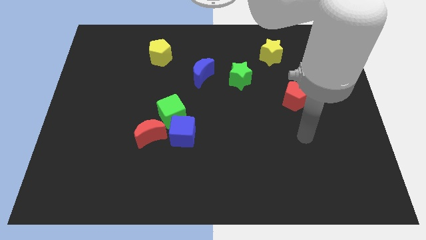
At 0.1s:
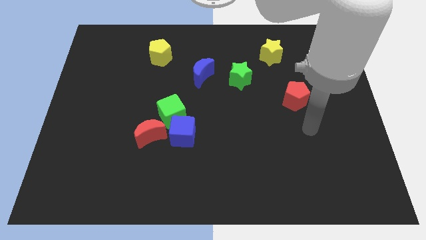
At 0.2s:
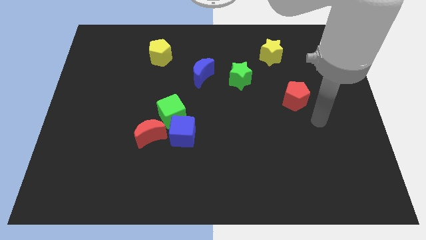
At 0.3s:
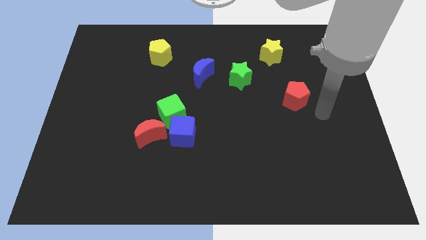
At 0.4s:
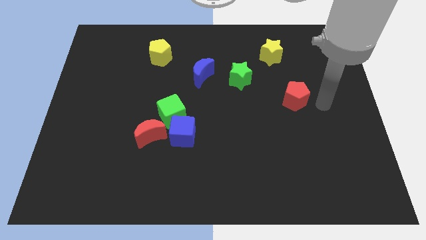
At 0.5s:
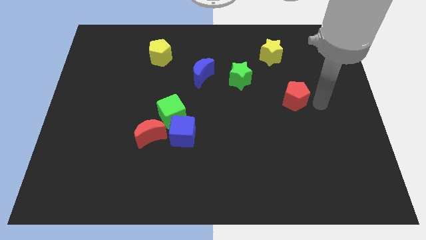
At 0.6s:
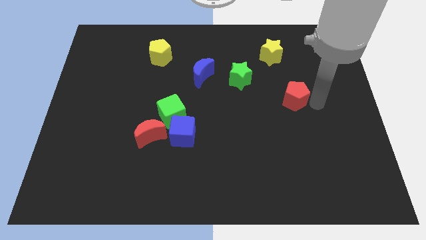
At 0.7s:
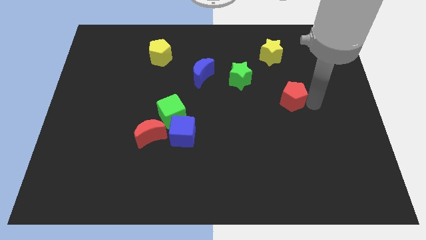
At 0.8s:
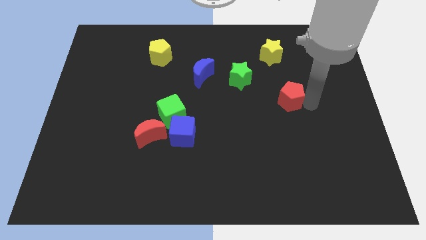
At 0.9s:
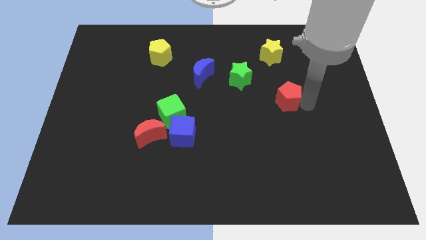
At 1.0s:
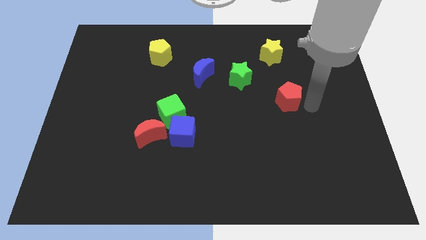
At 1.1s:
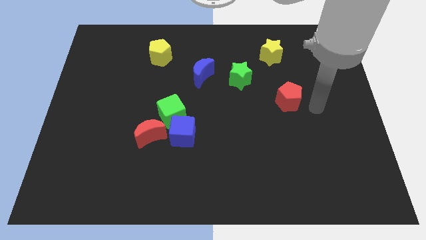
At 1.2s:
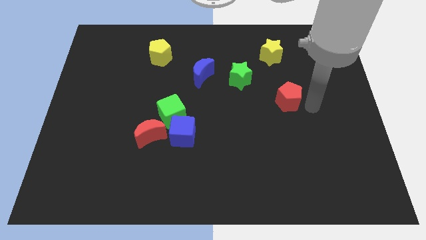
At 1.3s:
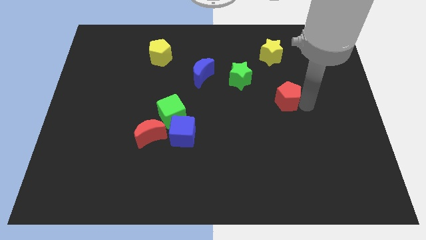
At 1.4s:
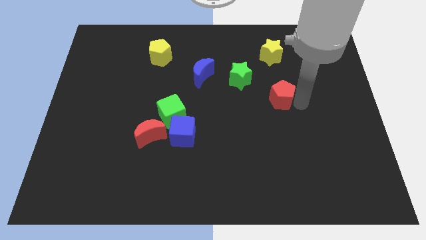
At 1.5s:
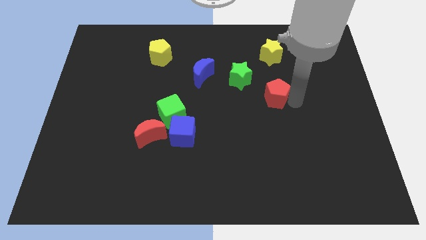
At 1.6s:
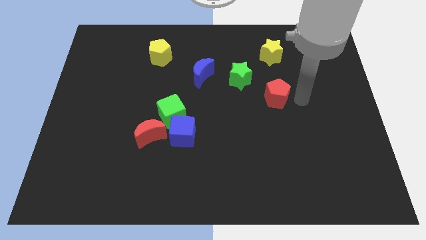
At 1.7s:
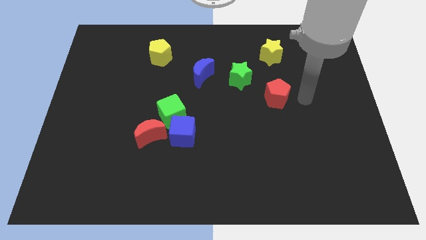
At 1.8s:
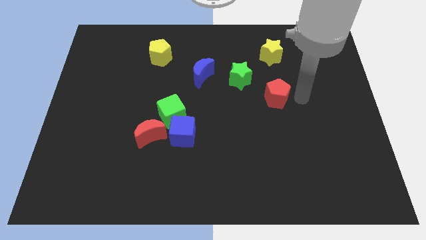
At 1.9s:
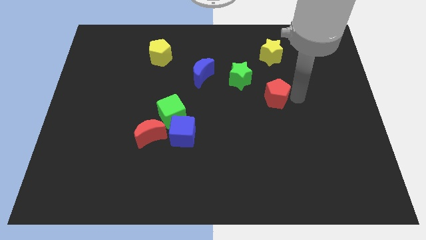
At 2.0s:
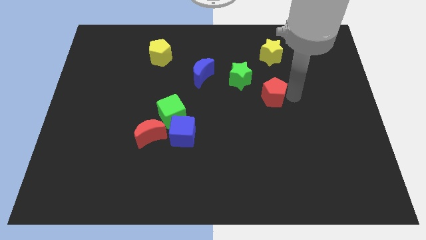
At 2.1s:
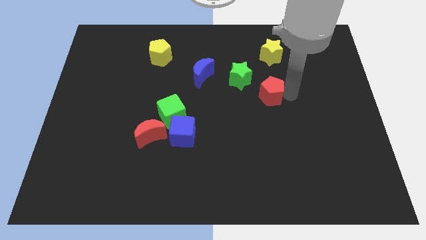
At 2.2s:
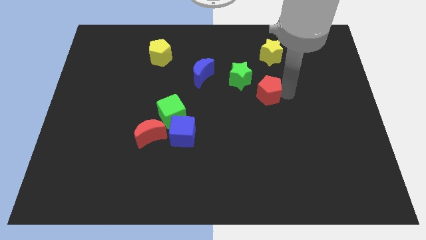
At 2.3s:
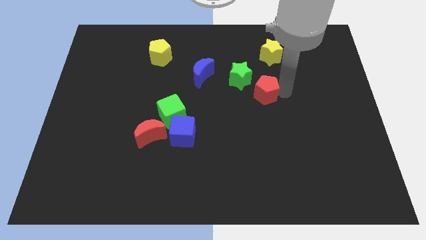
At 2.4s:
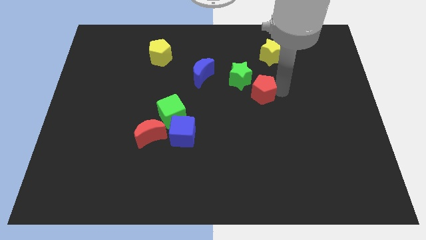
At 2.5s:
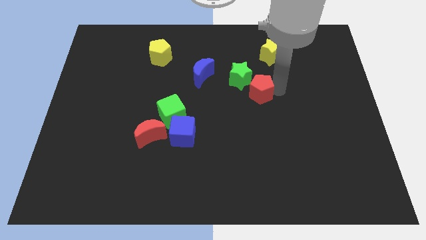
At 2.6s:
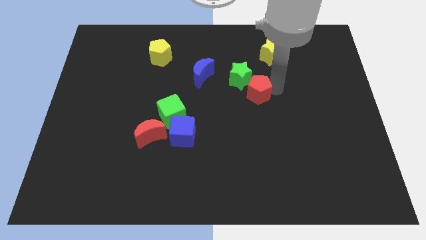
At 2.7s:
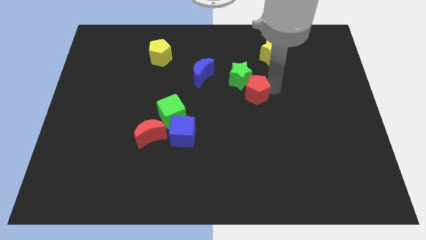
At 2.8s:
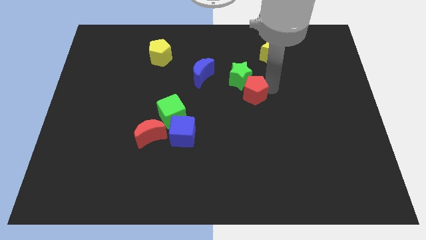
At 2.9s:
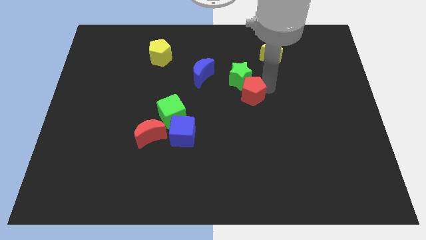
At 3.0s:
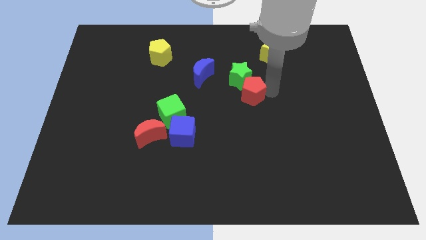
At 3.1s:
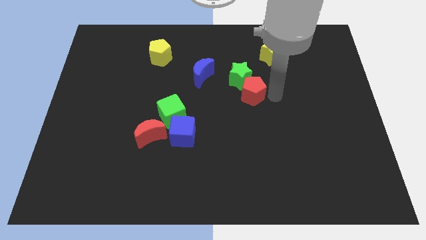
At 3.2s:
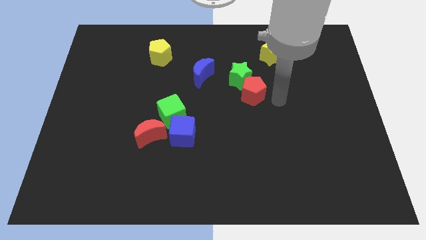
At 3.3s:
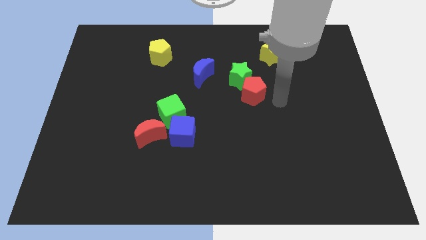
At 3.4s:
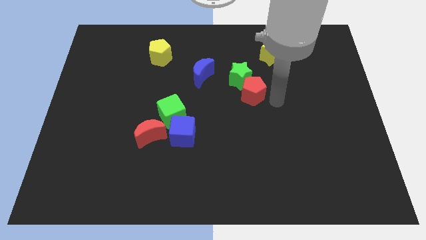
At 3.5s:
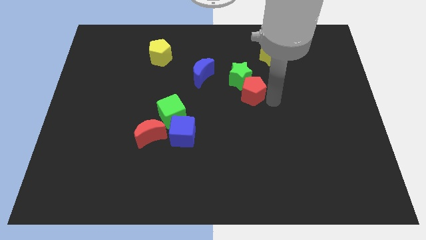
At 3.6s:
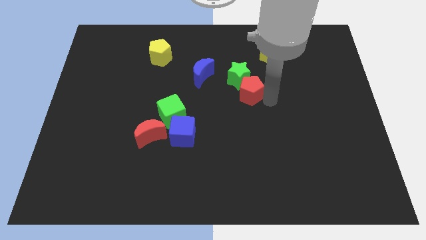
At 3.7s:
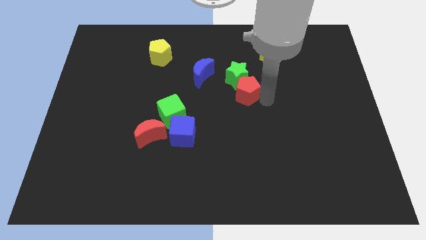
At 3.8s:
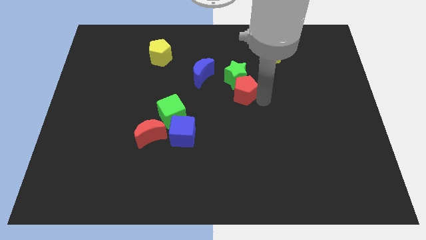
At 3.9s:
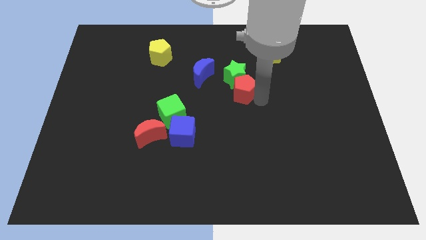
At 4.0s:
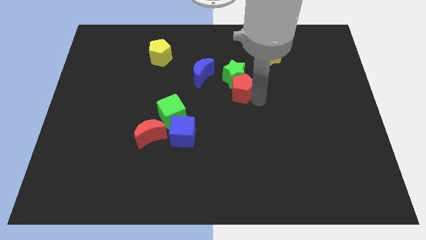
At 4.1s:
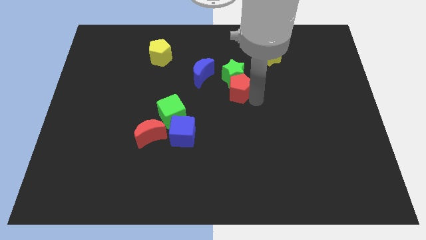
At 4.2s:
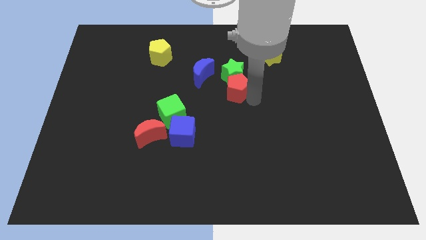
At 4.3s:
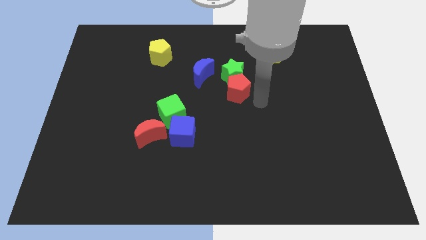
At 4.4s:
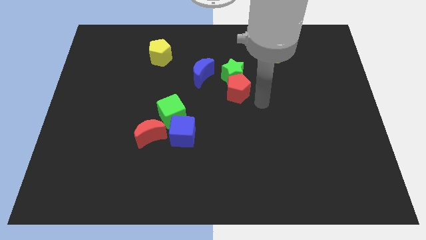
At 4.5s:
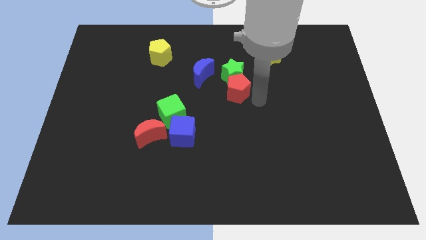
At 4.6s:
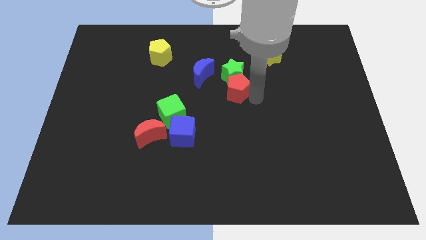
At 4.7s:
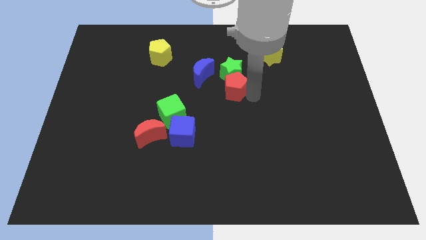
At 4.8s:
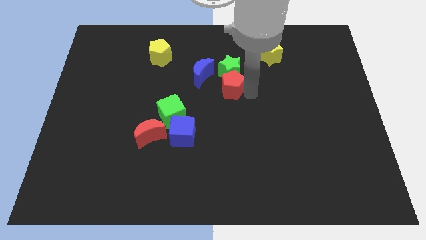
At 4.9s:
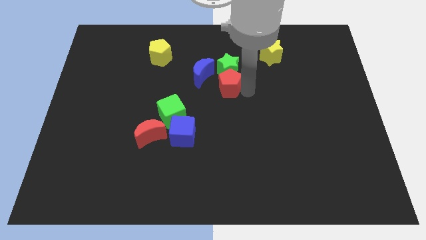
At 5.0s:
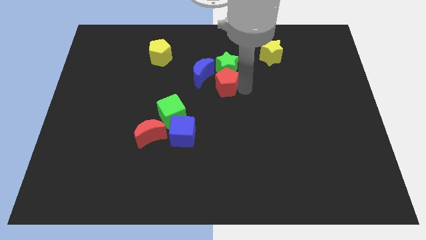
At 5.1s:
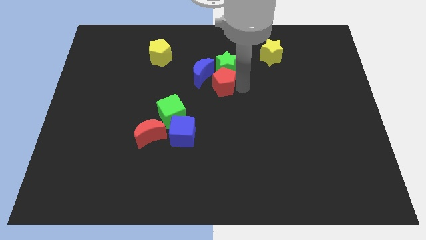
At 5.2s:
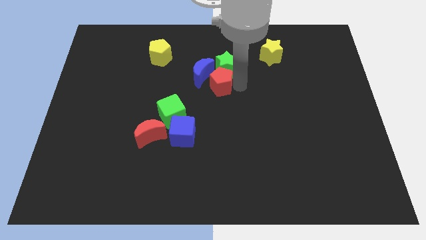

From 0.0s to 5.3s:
push the red pentagon towards the blue moon

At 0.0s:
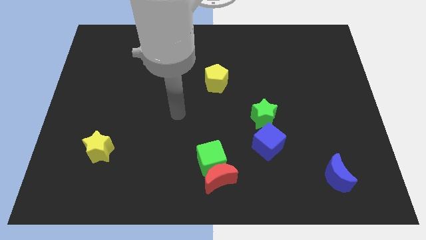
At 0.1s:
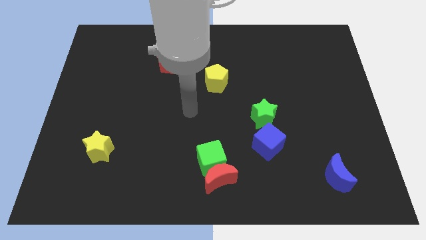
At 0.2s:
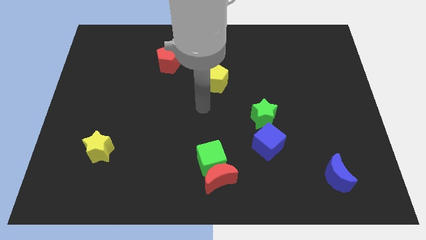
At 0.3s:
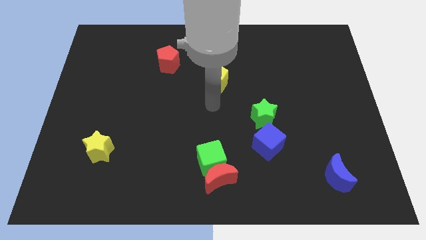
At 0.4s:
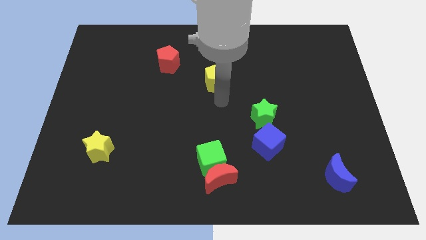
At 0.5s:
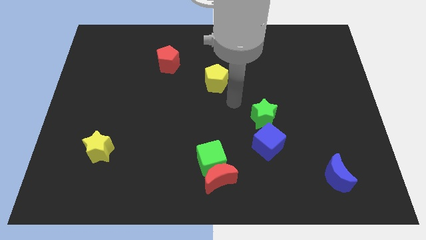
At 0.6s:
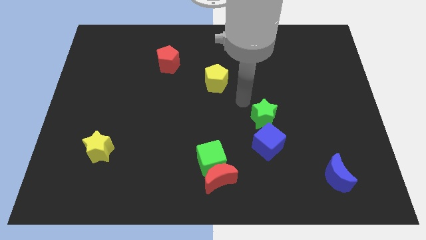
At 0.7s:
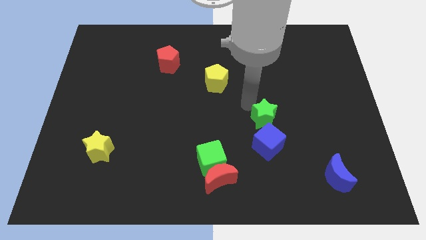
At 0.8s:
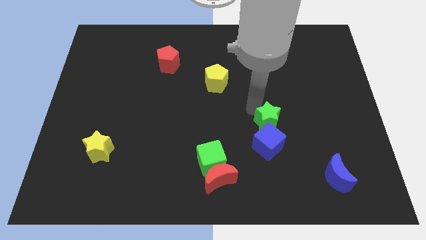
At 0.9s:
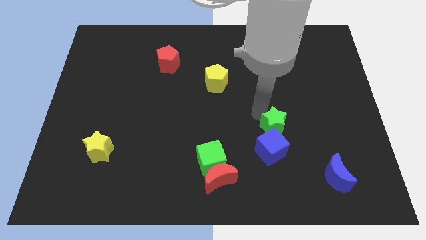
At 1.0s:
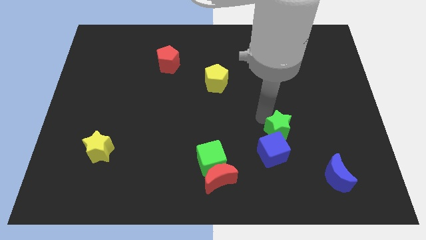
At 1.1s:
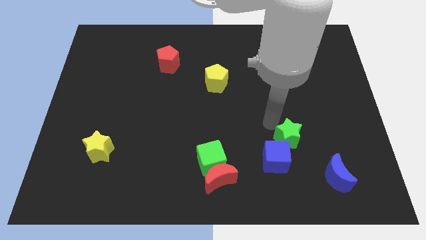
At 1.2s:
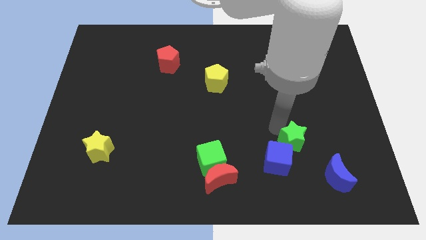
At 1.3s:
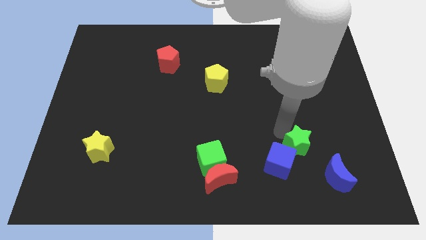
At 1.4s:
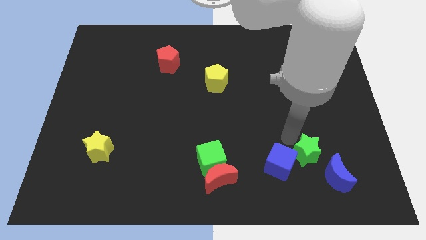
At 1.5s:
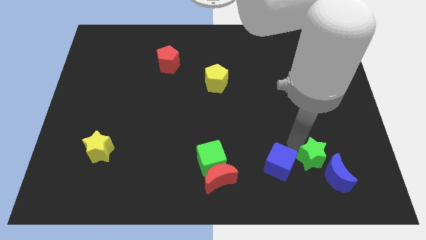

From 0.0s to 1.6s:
push the green star next to the blue moon

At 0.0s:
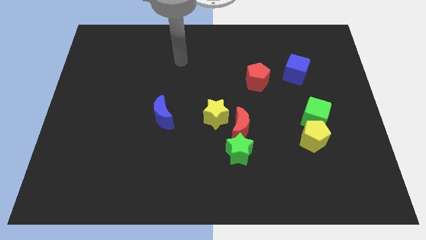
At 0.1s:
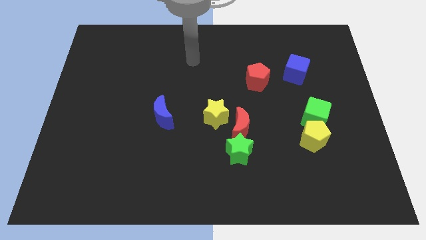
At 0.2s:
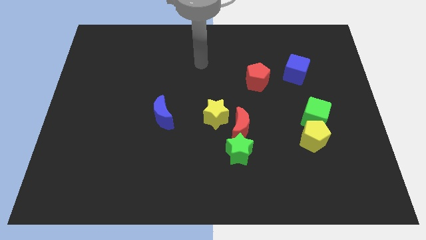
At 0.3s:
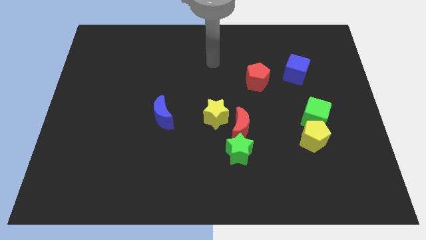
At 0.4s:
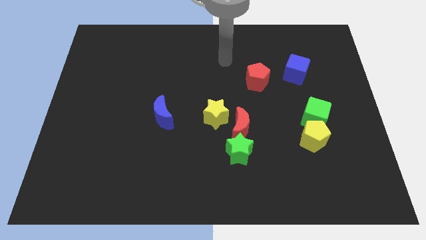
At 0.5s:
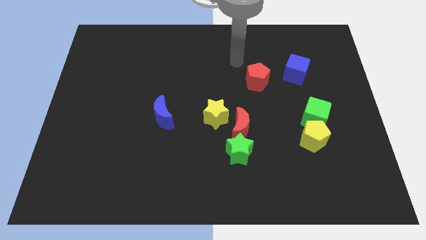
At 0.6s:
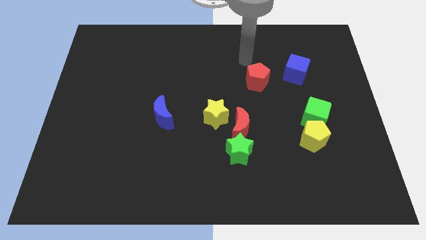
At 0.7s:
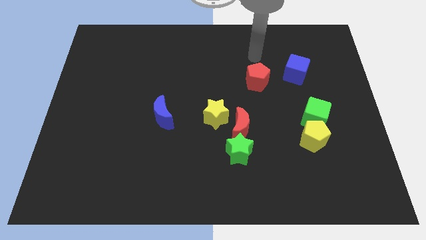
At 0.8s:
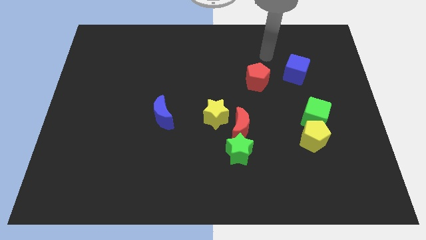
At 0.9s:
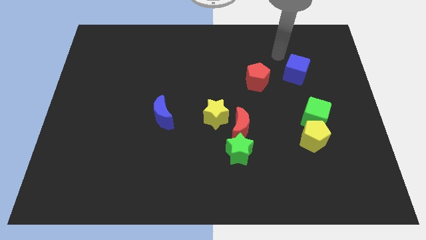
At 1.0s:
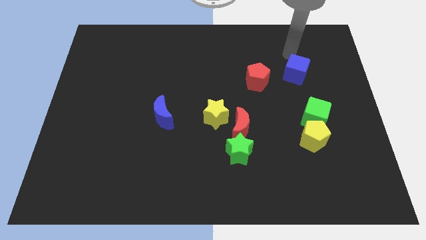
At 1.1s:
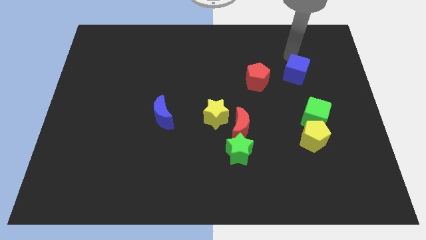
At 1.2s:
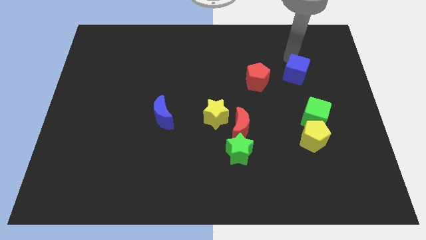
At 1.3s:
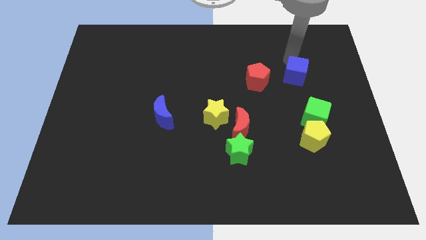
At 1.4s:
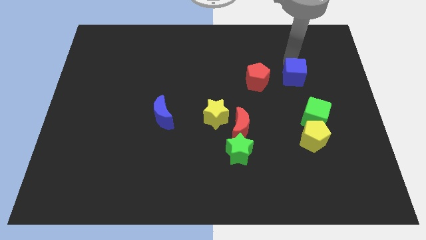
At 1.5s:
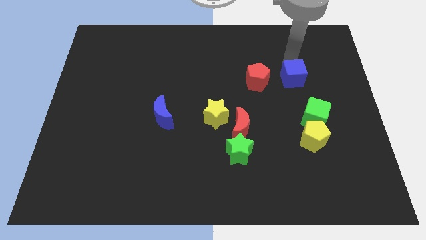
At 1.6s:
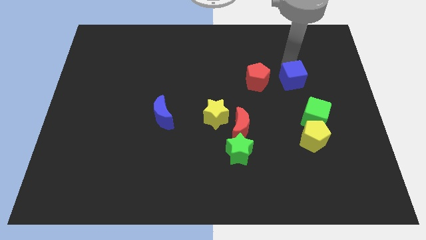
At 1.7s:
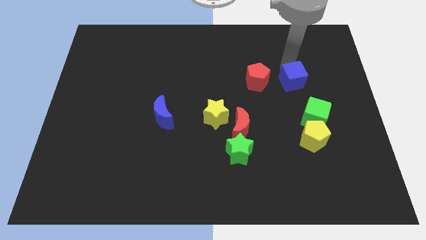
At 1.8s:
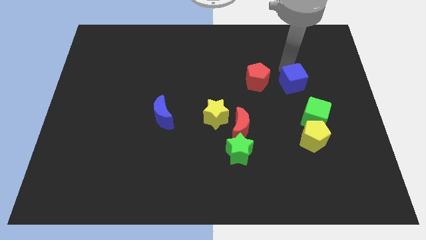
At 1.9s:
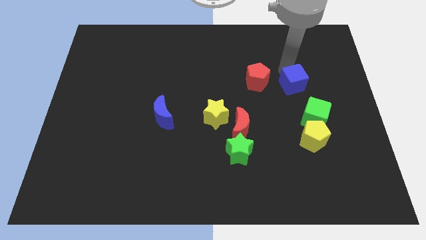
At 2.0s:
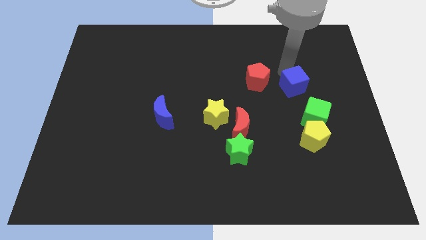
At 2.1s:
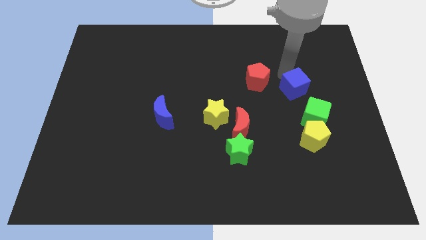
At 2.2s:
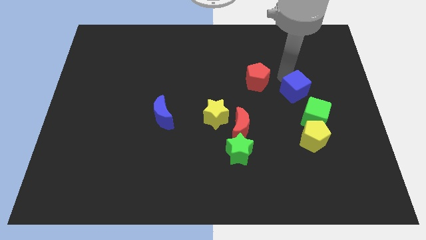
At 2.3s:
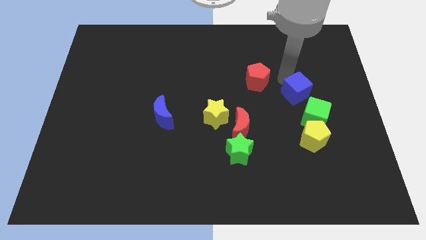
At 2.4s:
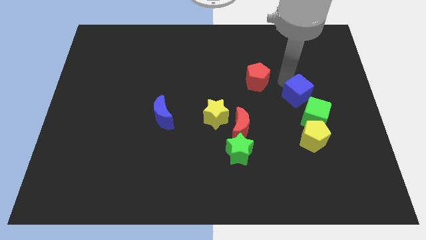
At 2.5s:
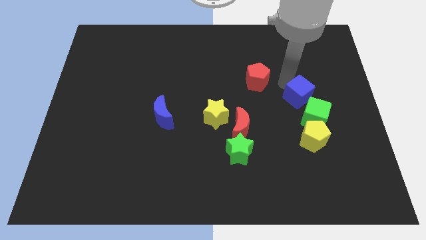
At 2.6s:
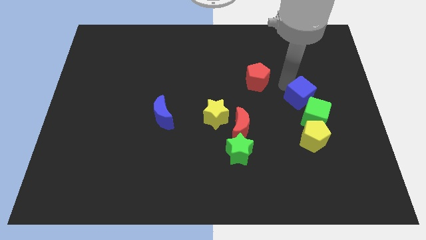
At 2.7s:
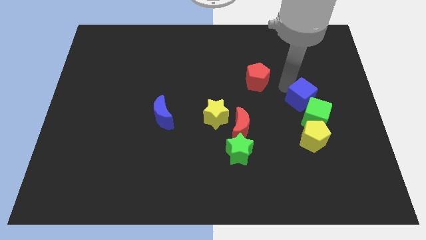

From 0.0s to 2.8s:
push the blue cube close to the green cube
